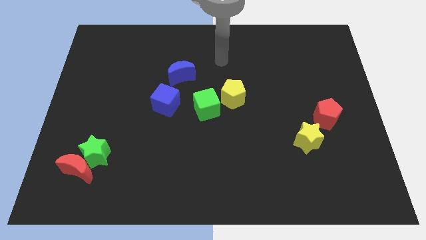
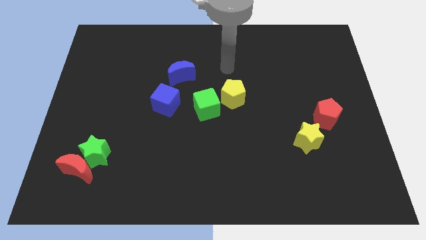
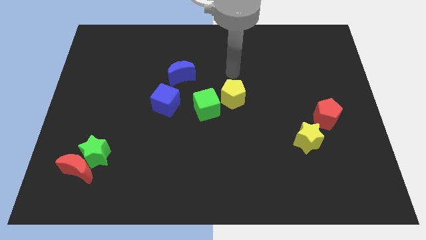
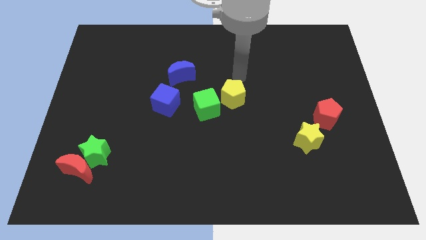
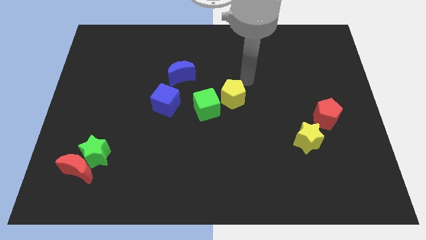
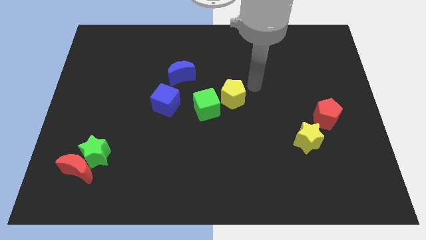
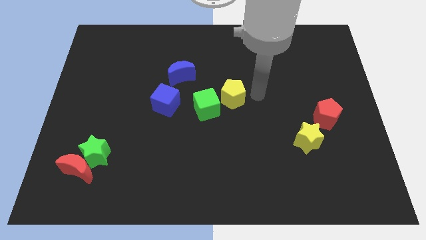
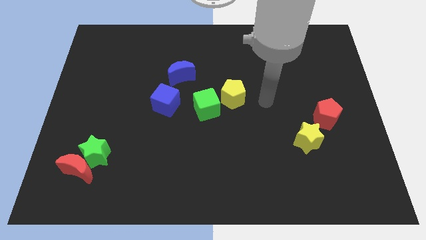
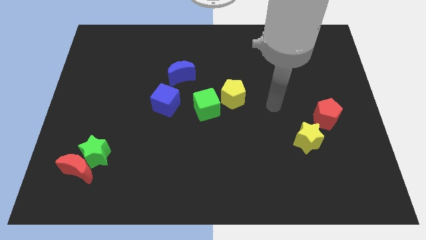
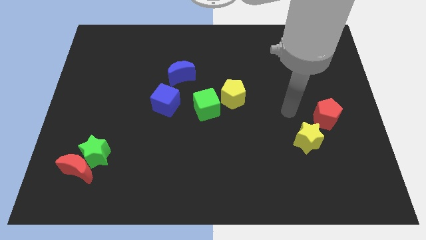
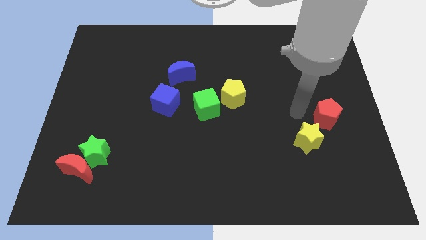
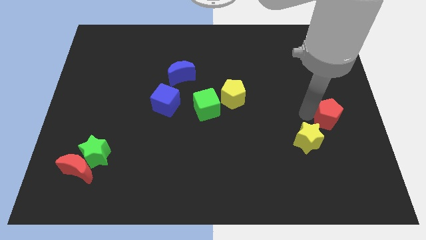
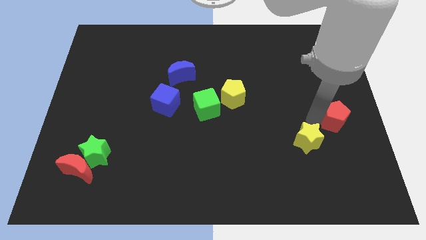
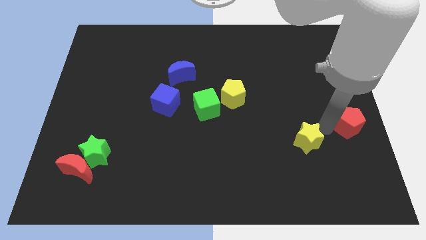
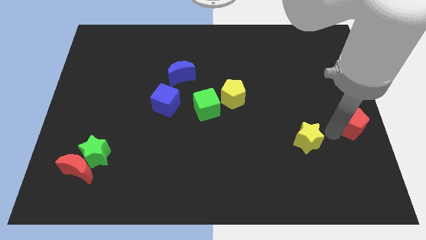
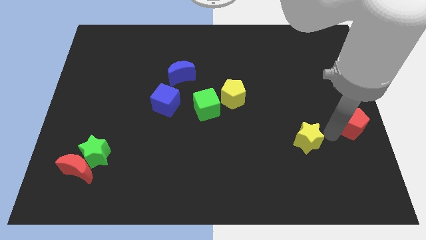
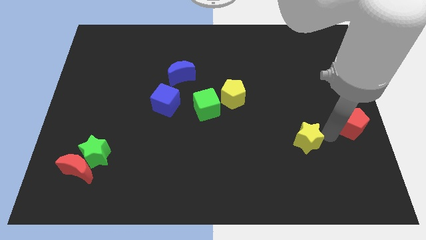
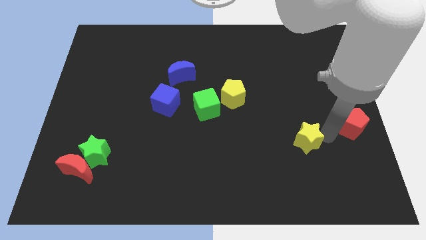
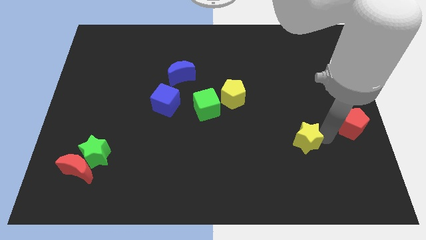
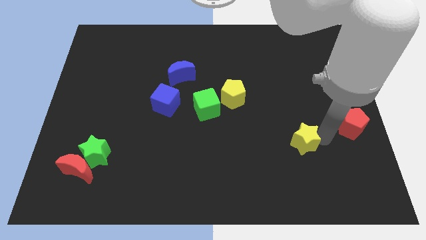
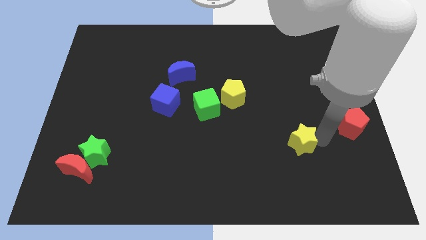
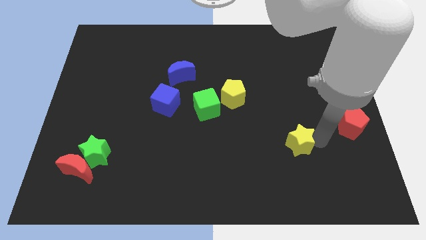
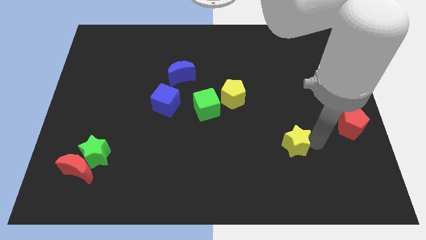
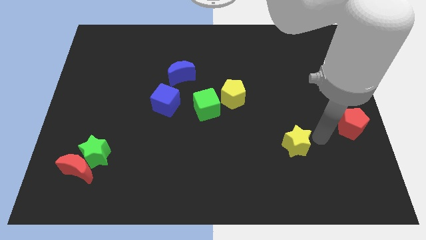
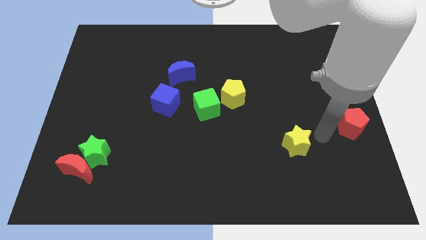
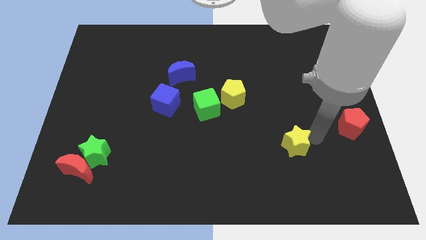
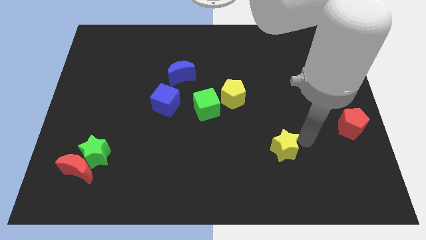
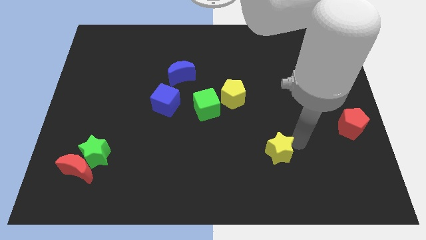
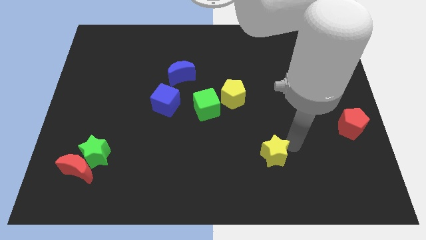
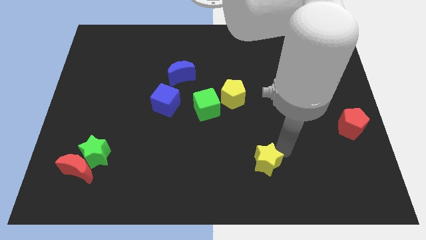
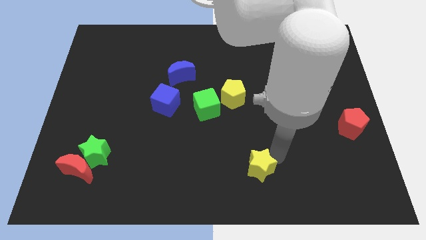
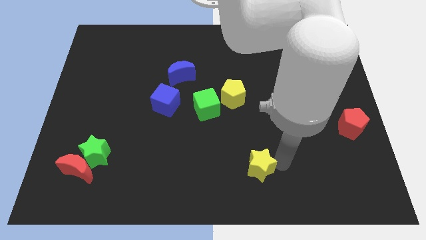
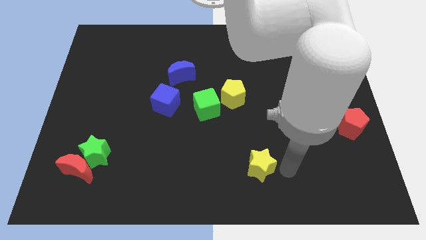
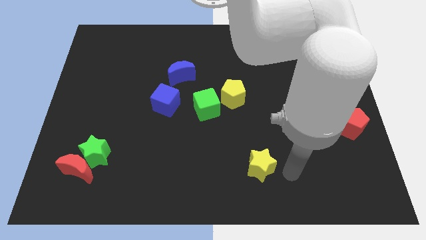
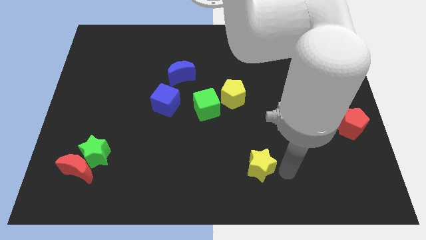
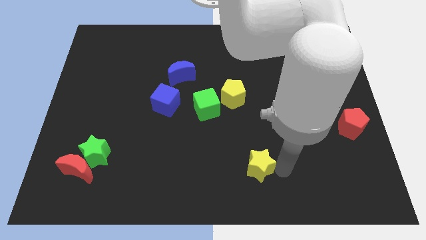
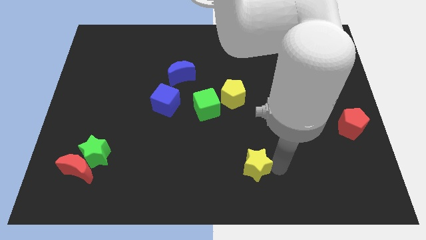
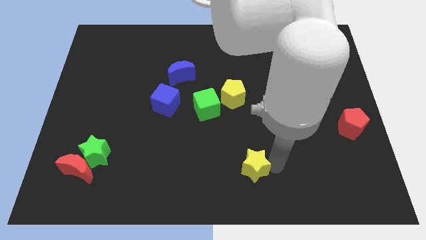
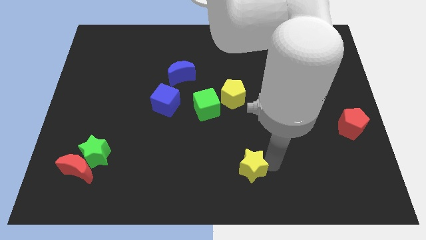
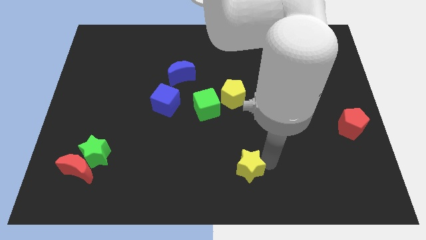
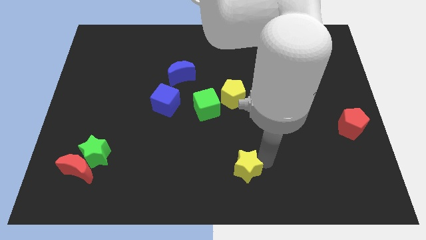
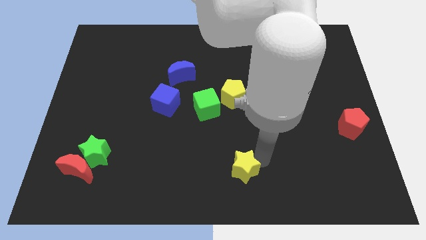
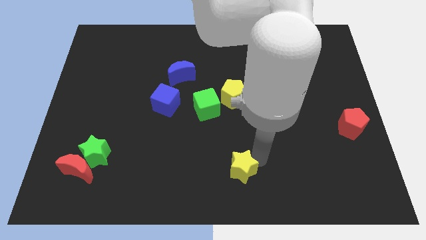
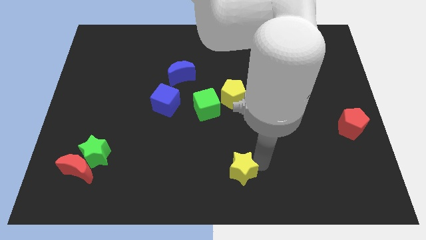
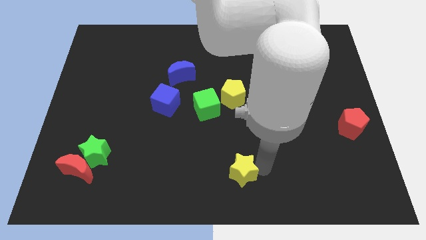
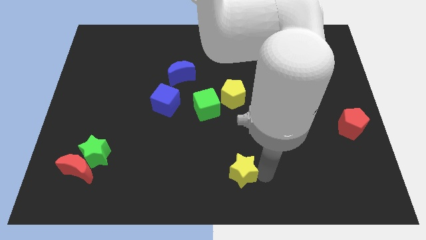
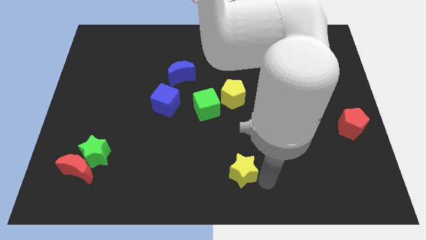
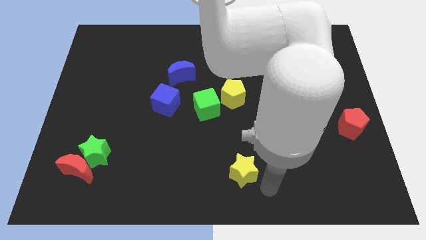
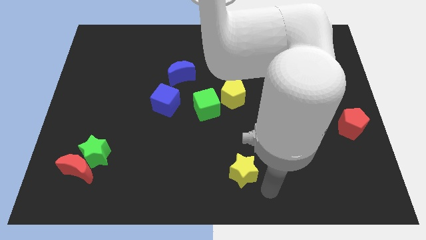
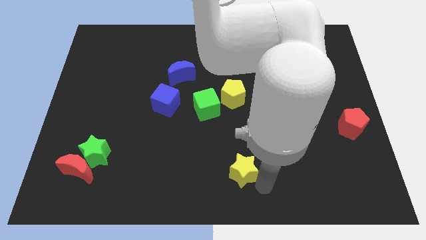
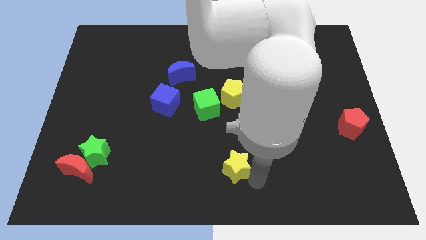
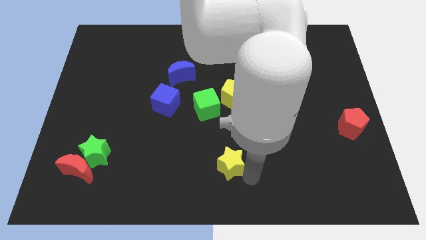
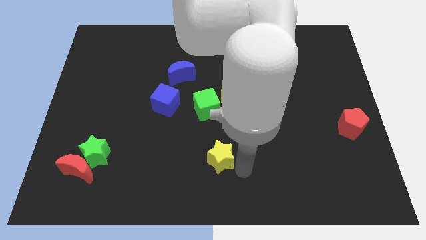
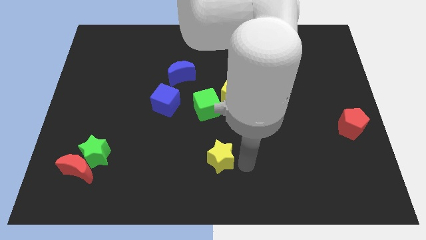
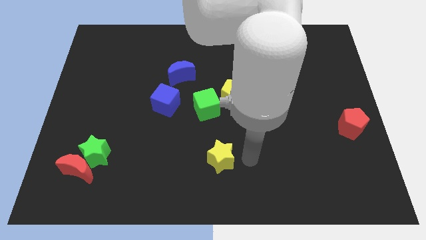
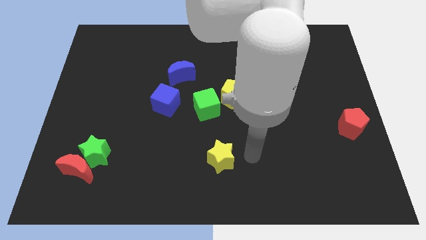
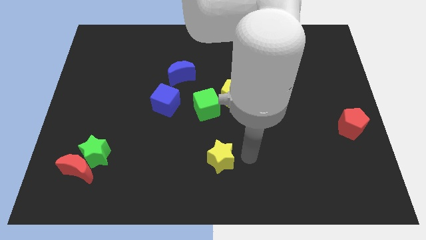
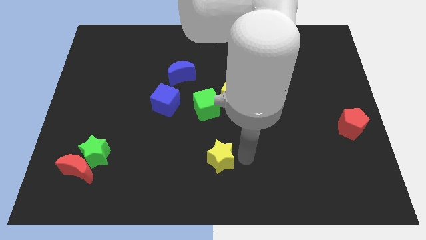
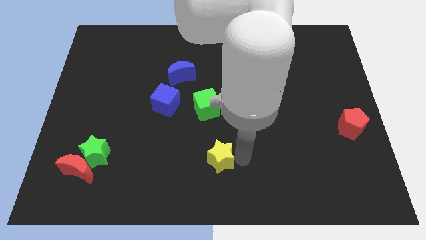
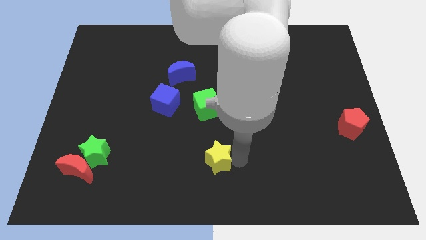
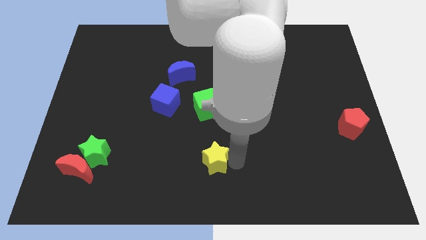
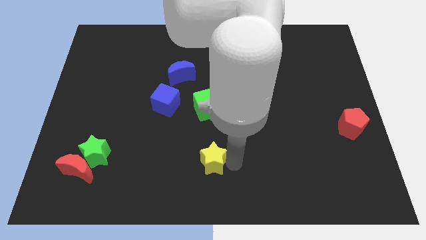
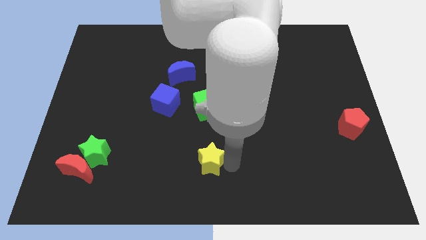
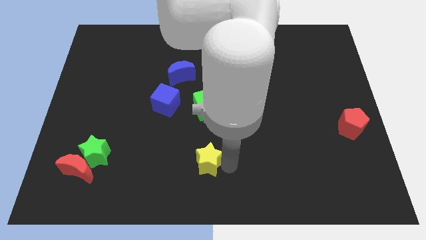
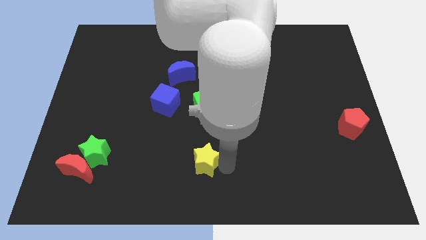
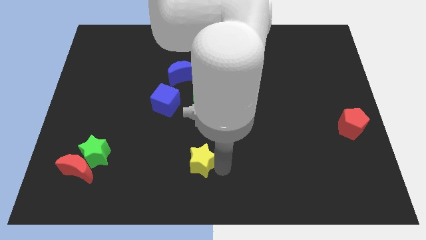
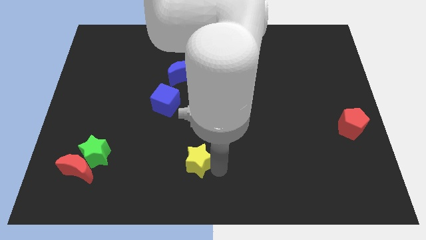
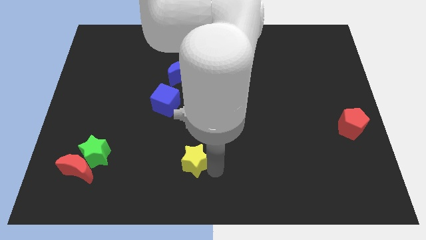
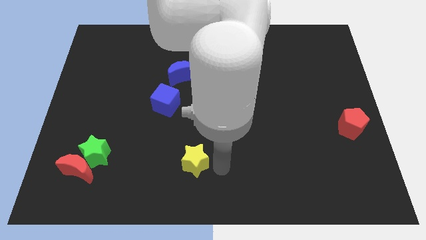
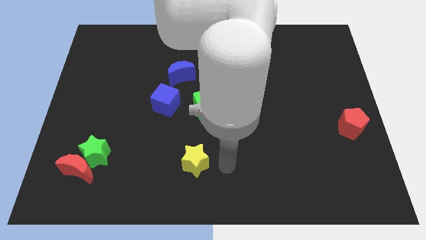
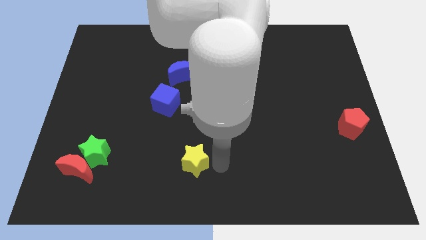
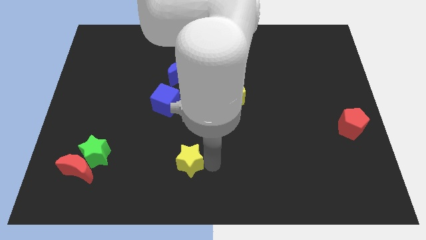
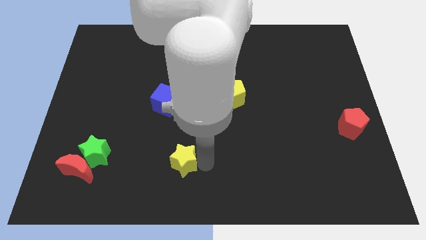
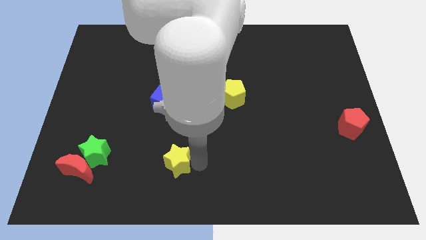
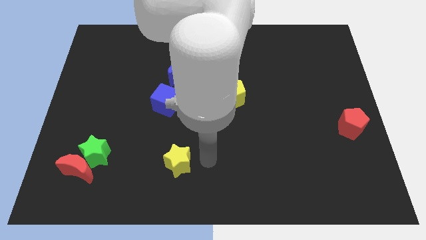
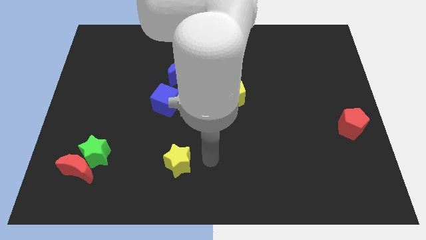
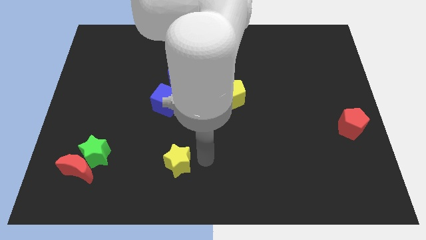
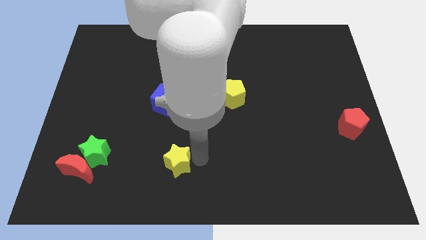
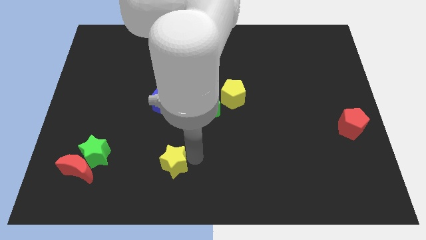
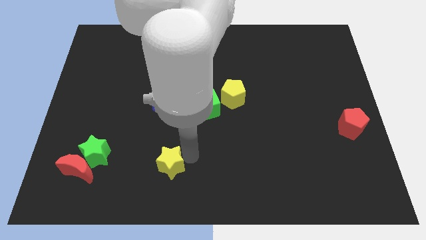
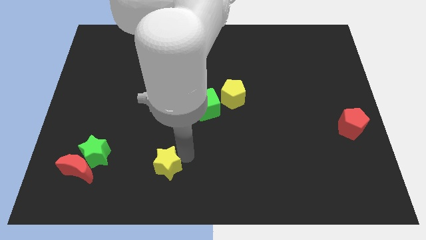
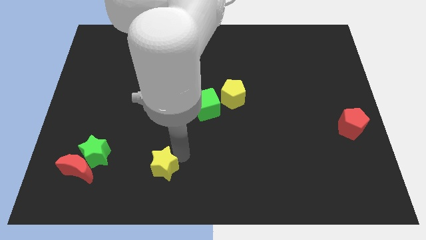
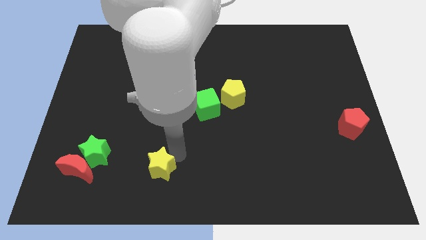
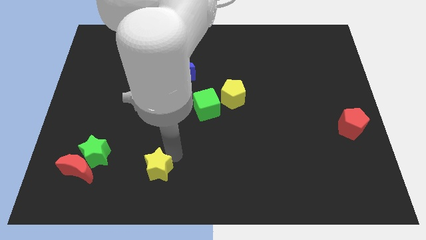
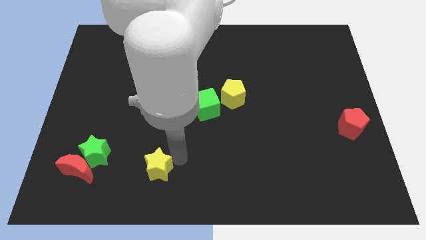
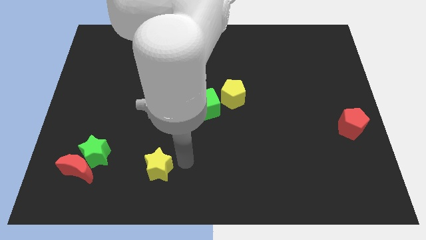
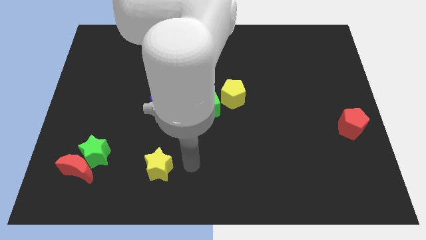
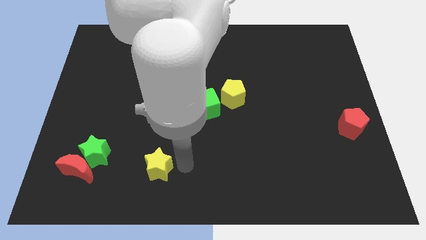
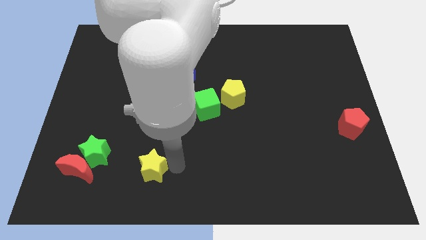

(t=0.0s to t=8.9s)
move the yellow star to the right side of the red moon
